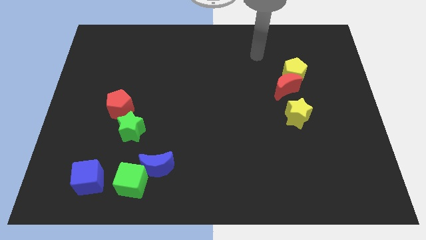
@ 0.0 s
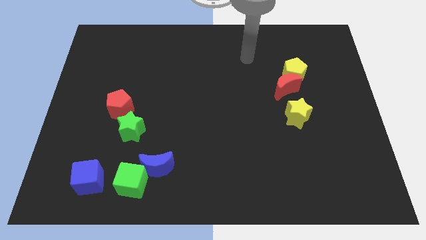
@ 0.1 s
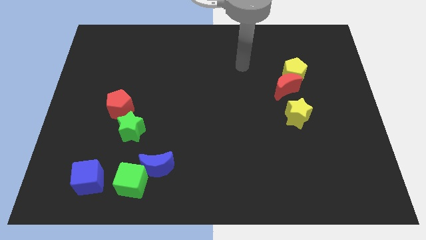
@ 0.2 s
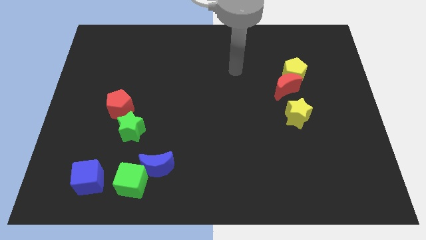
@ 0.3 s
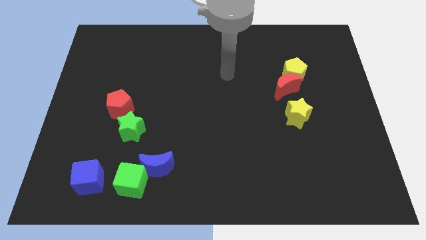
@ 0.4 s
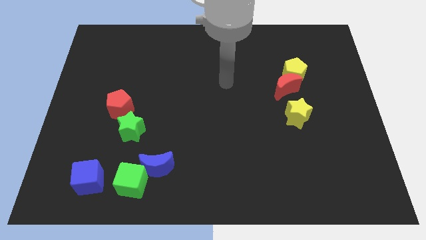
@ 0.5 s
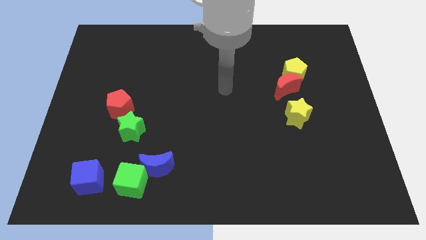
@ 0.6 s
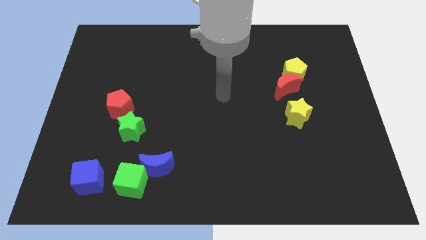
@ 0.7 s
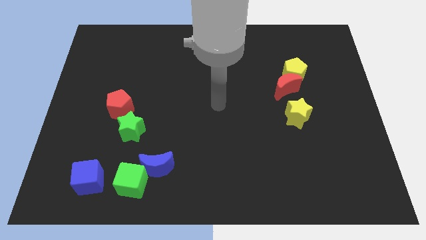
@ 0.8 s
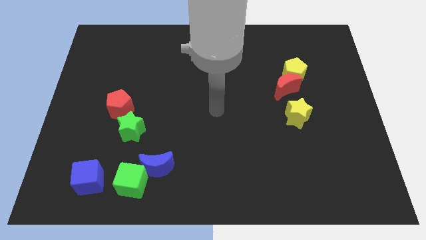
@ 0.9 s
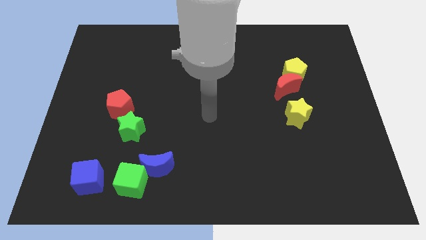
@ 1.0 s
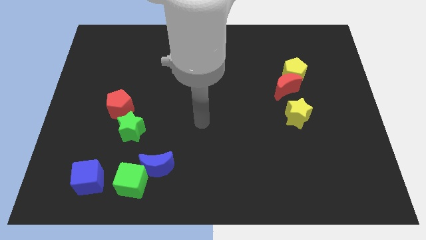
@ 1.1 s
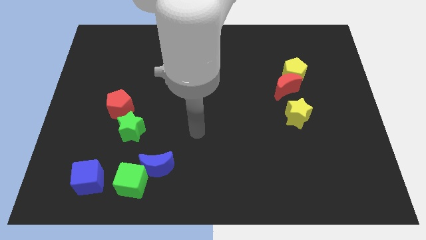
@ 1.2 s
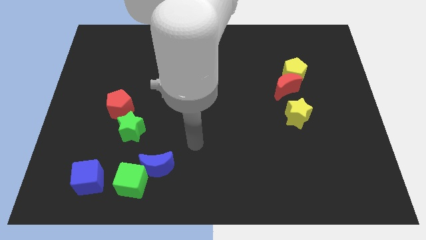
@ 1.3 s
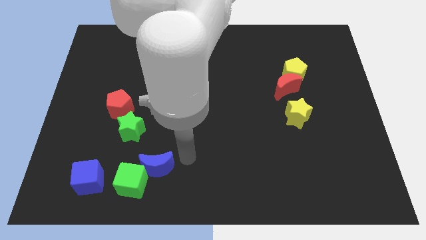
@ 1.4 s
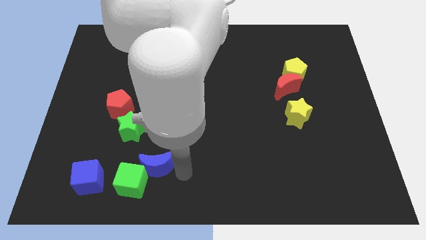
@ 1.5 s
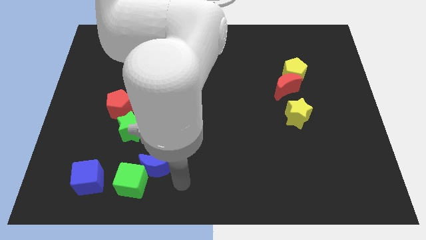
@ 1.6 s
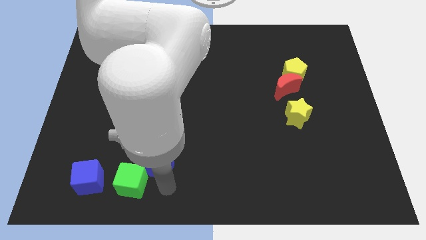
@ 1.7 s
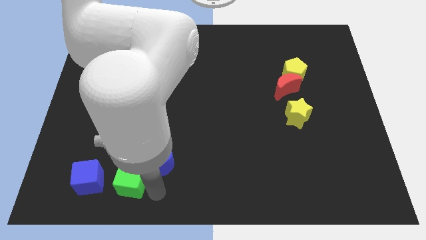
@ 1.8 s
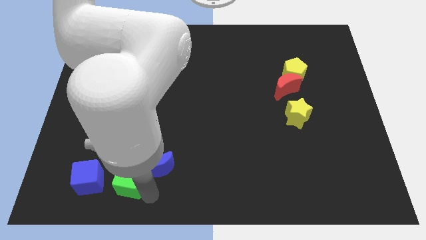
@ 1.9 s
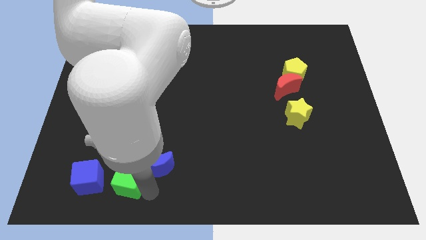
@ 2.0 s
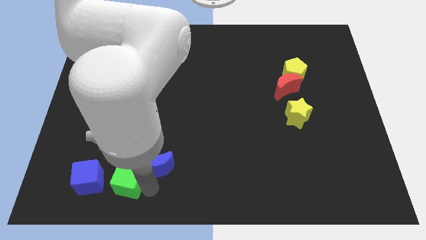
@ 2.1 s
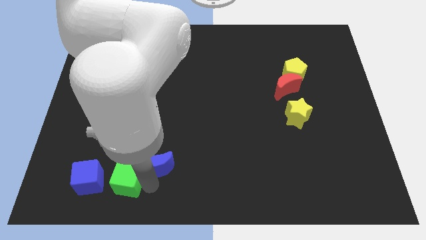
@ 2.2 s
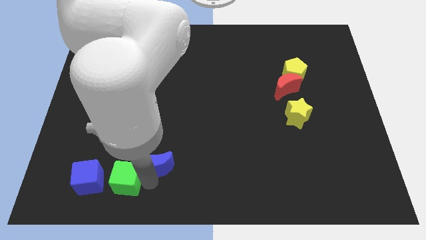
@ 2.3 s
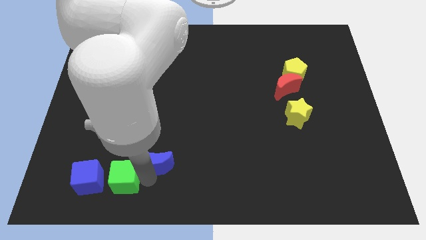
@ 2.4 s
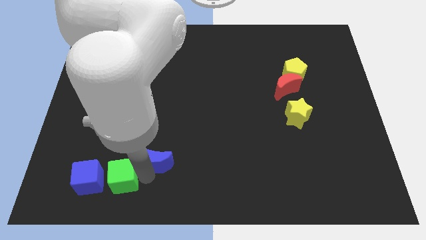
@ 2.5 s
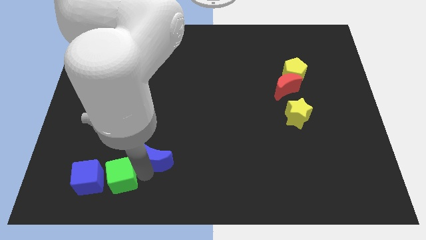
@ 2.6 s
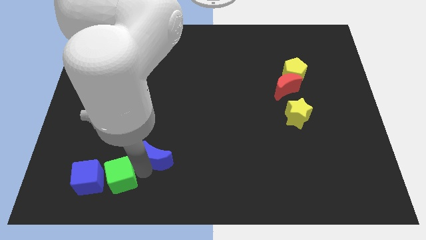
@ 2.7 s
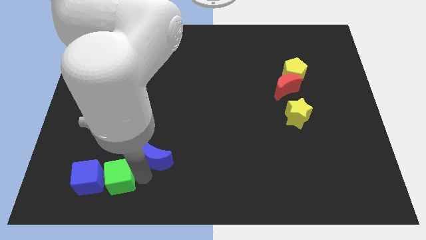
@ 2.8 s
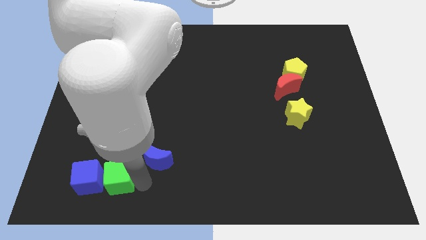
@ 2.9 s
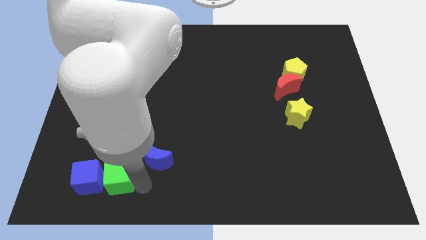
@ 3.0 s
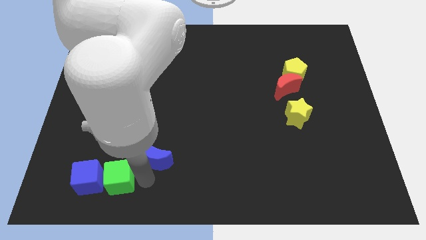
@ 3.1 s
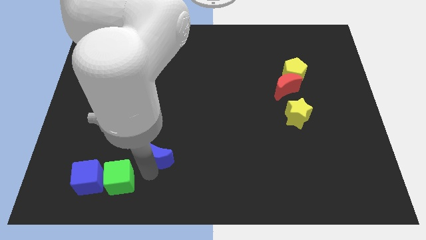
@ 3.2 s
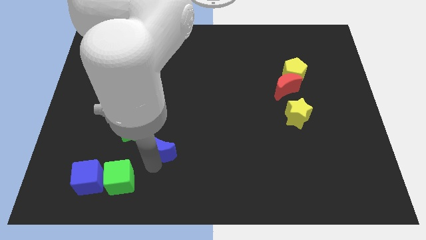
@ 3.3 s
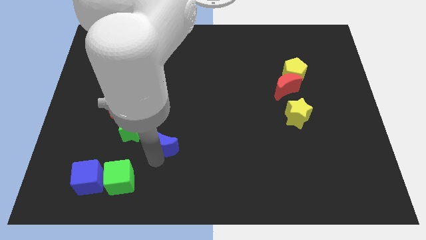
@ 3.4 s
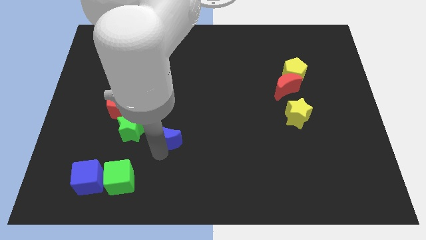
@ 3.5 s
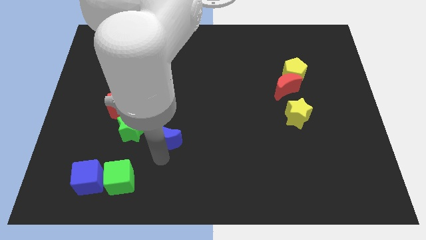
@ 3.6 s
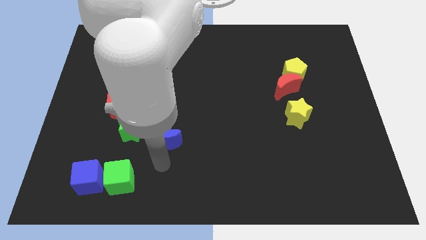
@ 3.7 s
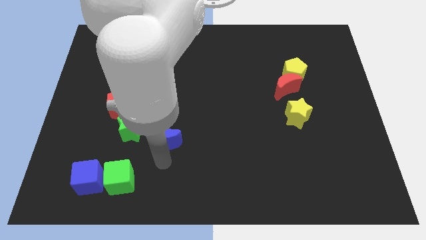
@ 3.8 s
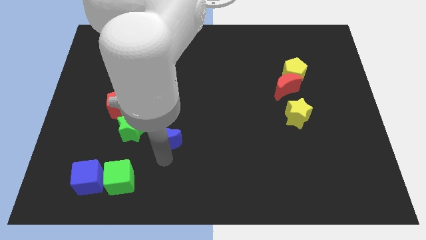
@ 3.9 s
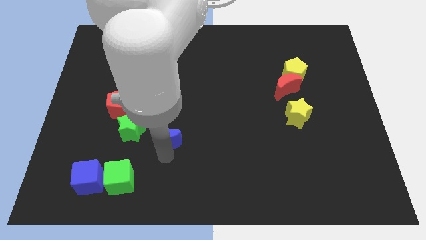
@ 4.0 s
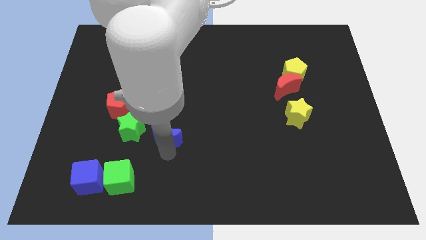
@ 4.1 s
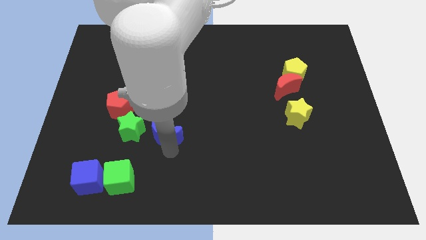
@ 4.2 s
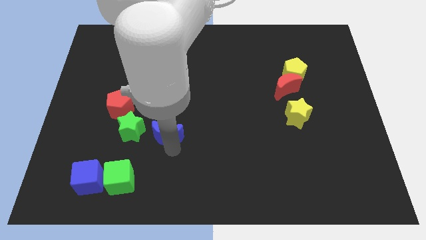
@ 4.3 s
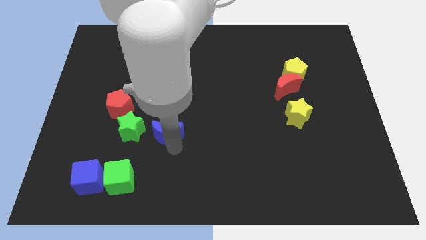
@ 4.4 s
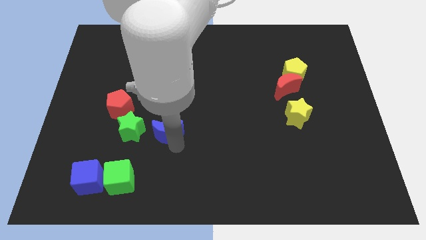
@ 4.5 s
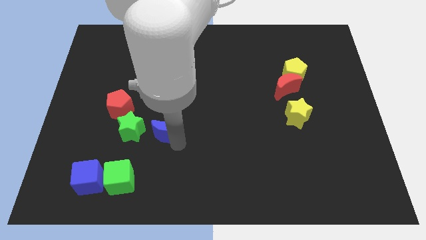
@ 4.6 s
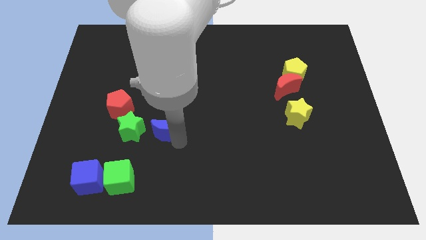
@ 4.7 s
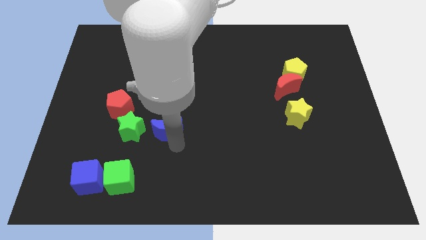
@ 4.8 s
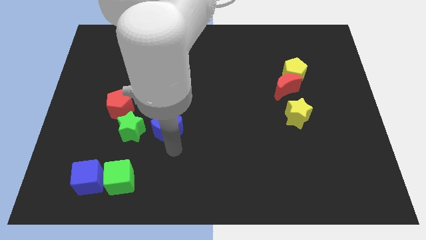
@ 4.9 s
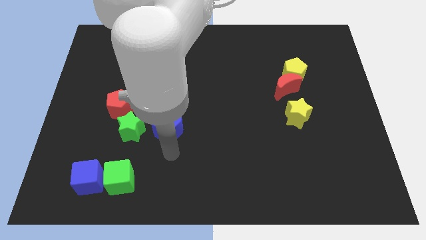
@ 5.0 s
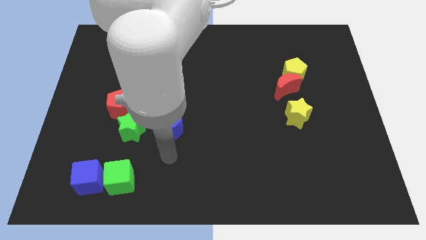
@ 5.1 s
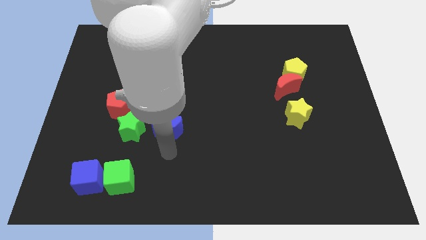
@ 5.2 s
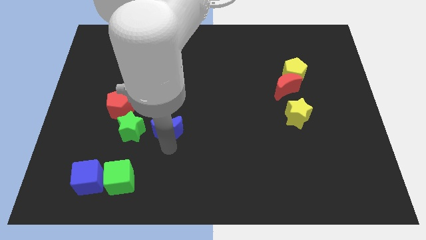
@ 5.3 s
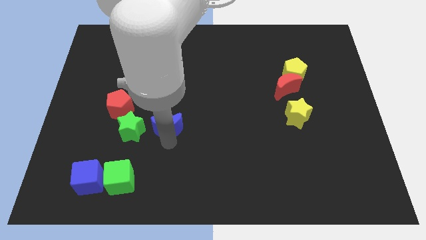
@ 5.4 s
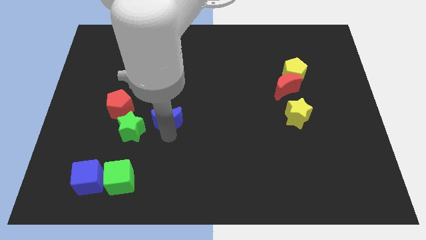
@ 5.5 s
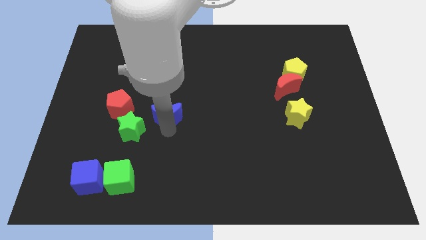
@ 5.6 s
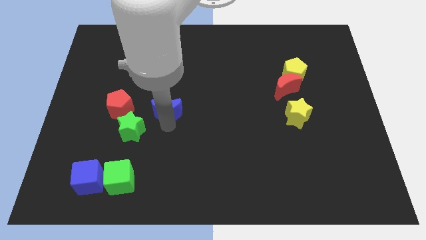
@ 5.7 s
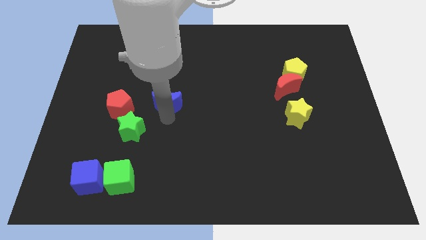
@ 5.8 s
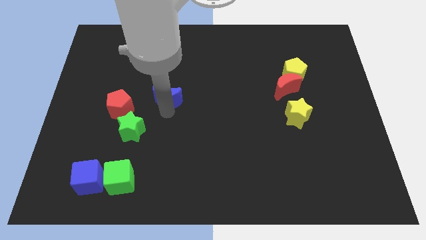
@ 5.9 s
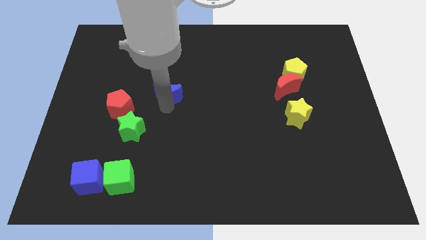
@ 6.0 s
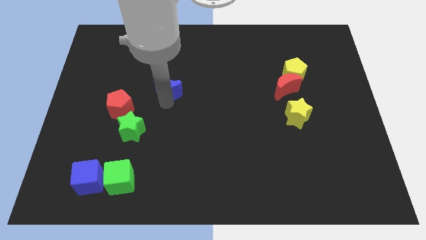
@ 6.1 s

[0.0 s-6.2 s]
push the blue moon up

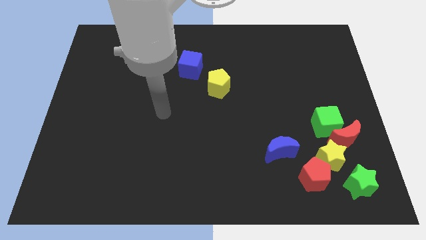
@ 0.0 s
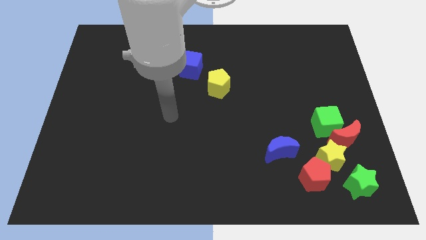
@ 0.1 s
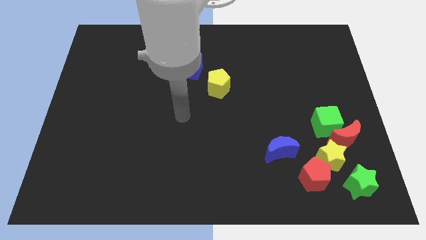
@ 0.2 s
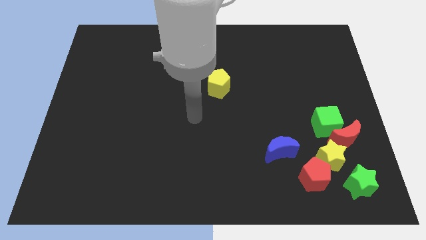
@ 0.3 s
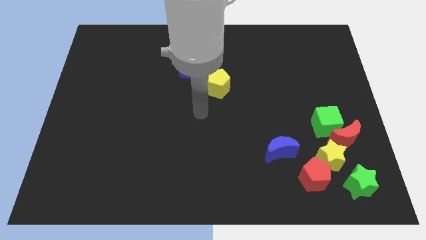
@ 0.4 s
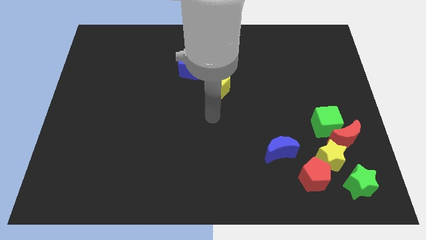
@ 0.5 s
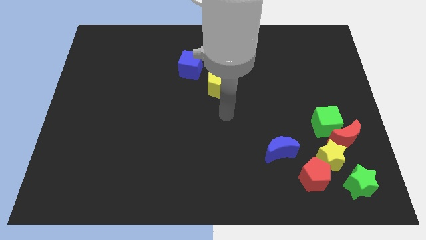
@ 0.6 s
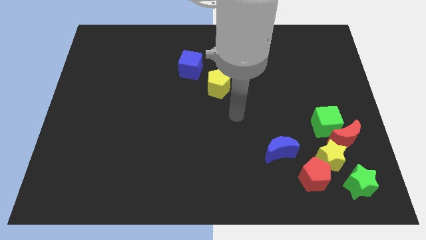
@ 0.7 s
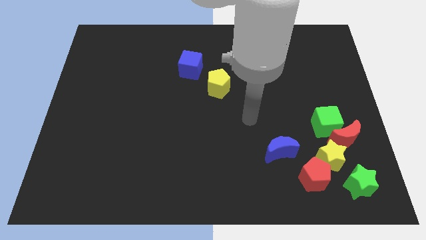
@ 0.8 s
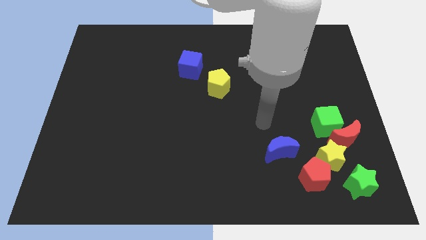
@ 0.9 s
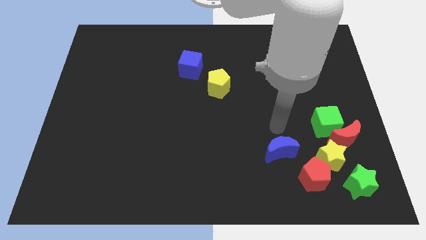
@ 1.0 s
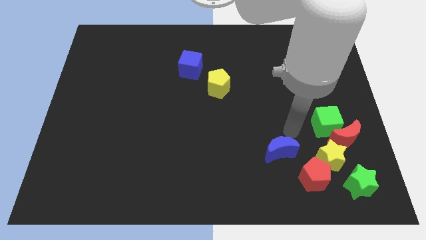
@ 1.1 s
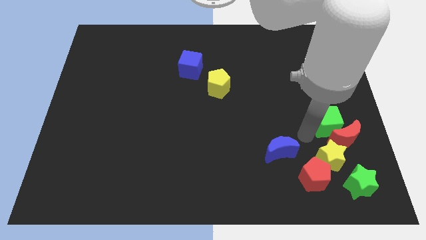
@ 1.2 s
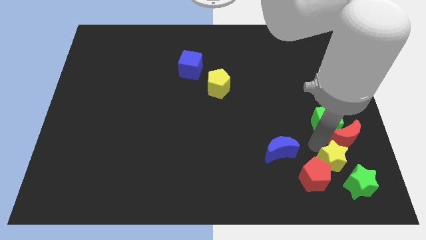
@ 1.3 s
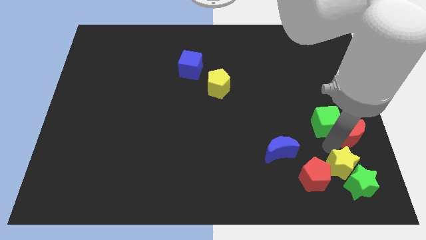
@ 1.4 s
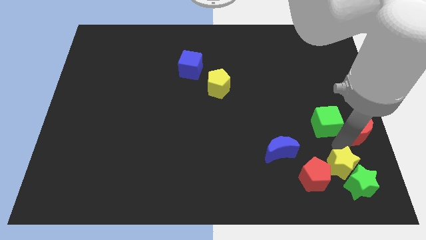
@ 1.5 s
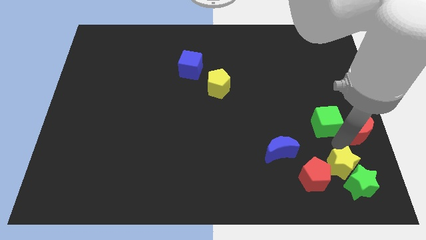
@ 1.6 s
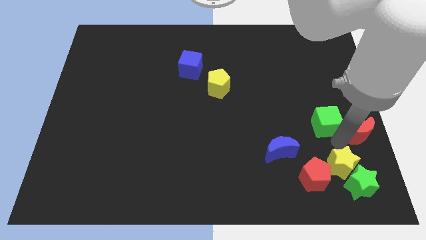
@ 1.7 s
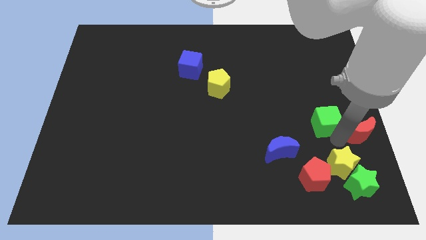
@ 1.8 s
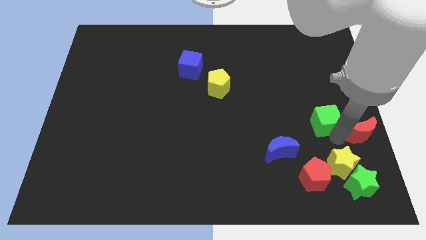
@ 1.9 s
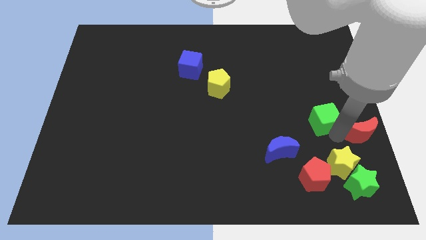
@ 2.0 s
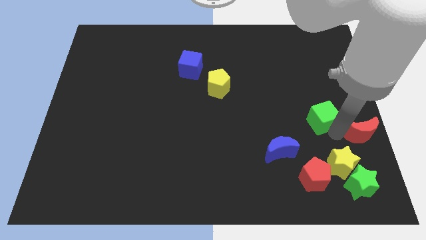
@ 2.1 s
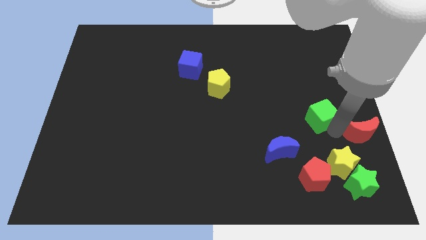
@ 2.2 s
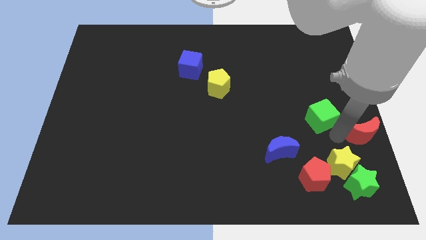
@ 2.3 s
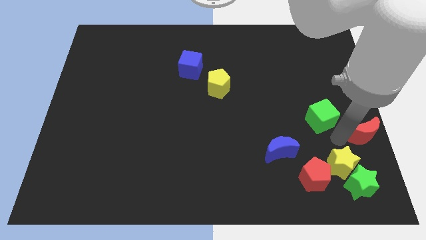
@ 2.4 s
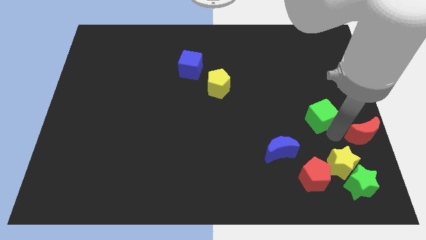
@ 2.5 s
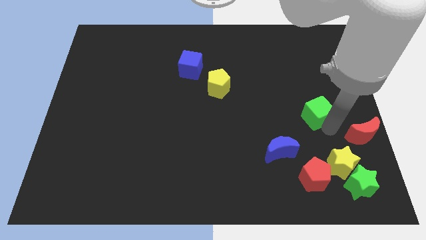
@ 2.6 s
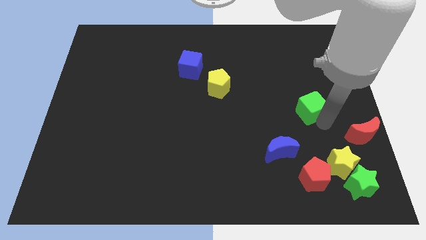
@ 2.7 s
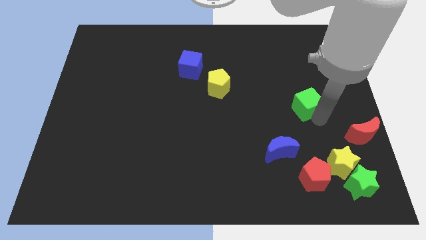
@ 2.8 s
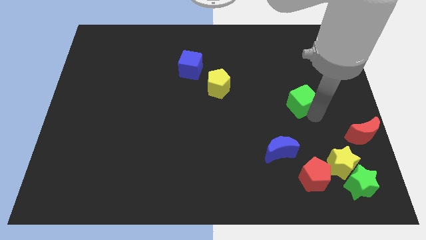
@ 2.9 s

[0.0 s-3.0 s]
slightly slide the green cube upwards and left diagonally
